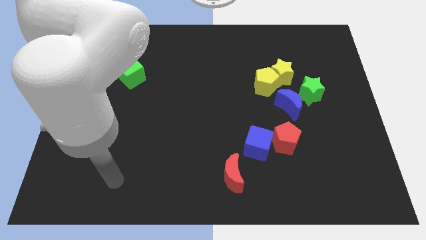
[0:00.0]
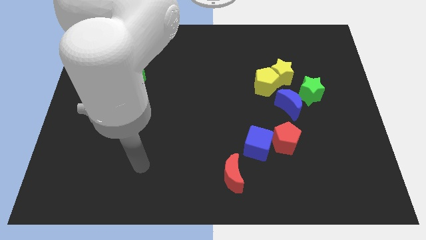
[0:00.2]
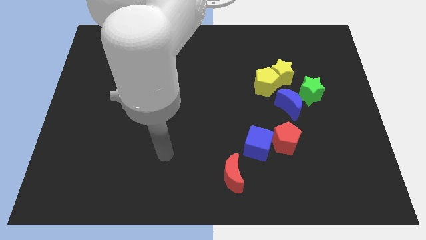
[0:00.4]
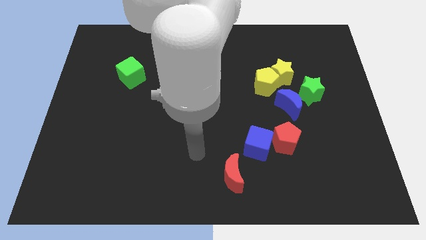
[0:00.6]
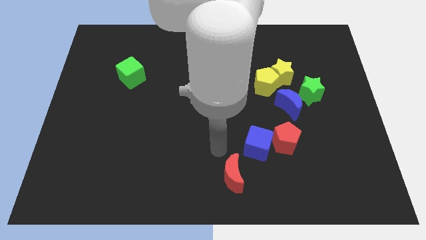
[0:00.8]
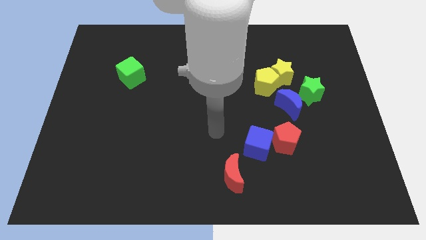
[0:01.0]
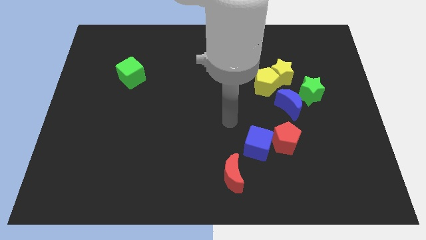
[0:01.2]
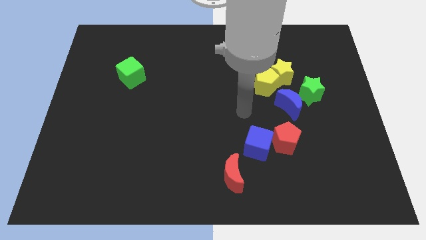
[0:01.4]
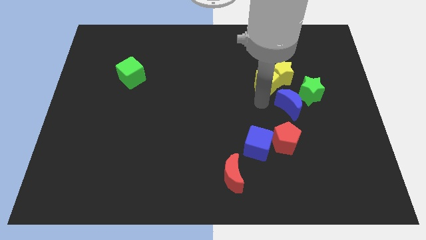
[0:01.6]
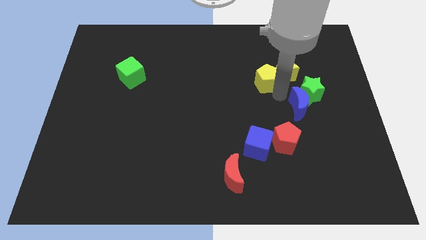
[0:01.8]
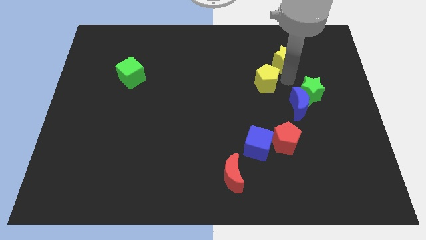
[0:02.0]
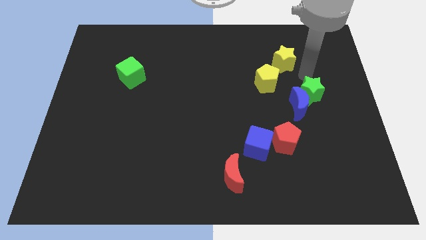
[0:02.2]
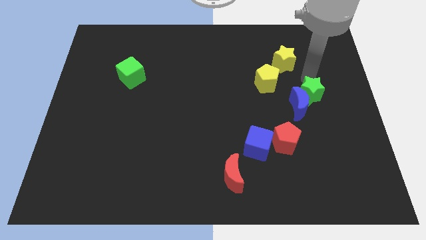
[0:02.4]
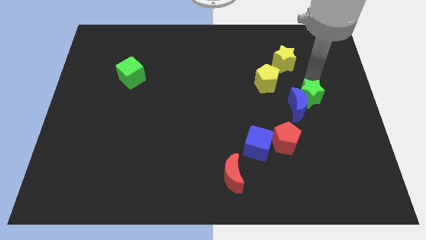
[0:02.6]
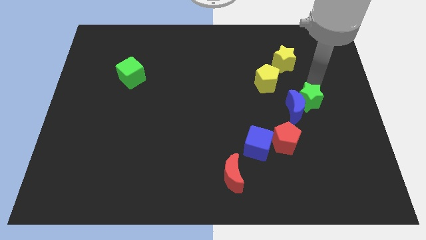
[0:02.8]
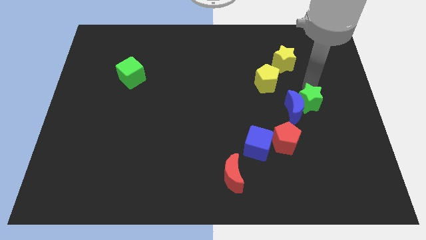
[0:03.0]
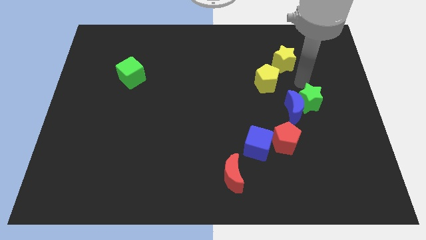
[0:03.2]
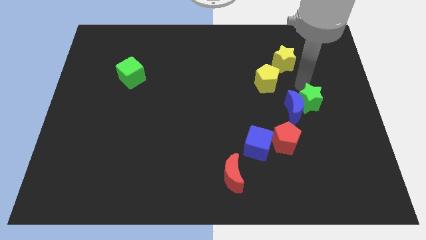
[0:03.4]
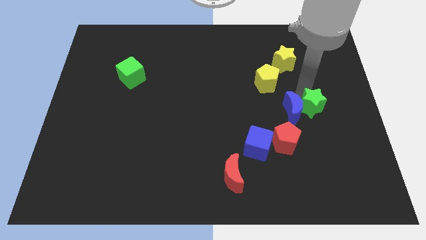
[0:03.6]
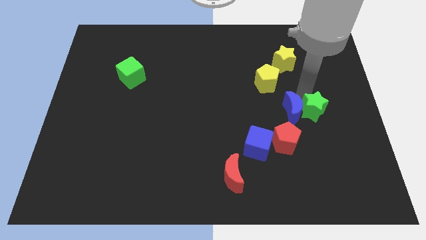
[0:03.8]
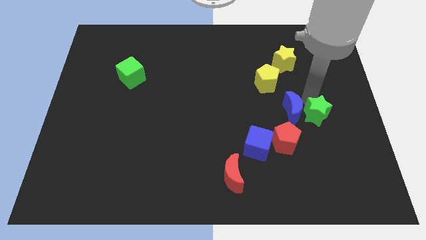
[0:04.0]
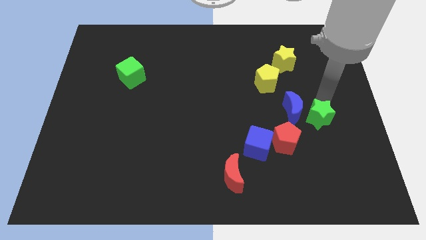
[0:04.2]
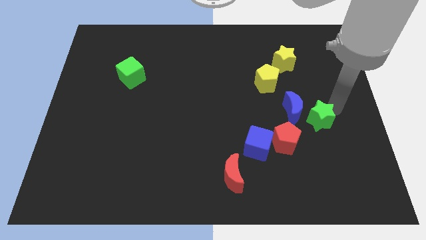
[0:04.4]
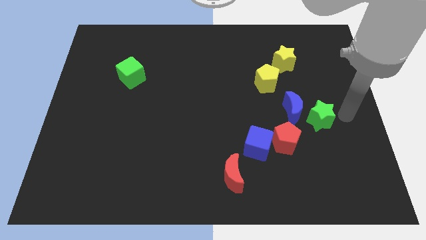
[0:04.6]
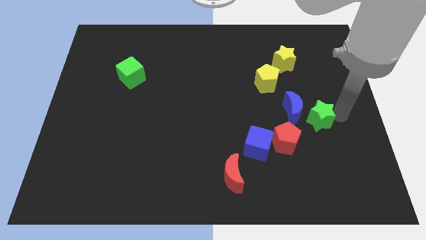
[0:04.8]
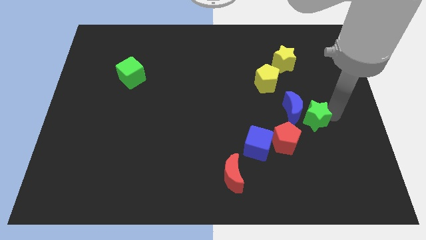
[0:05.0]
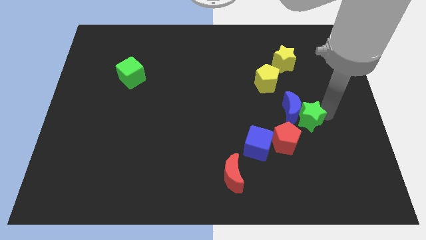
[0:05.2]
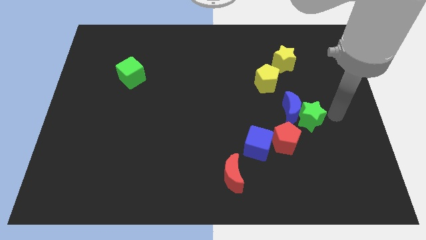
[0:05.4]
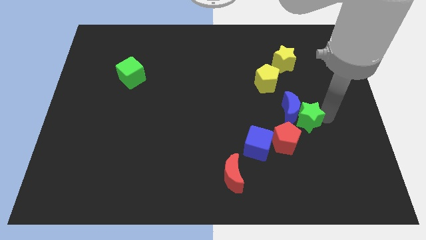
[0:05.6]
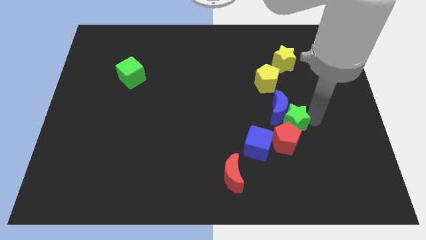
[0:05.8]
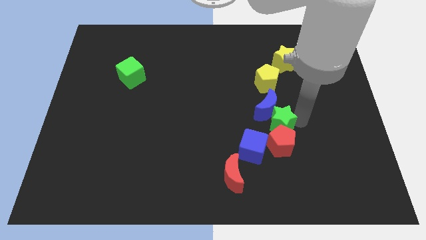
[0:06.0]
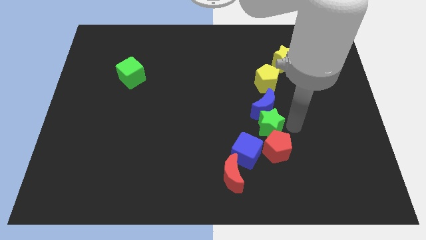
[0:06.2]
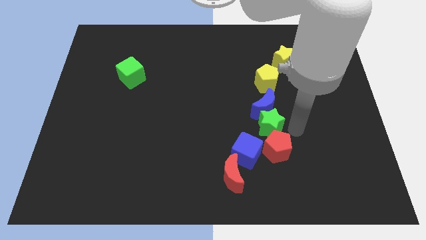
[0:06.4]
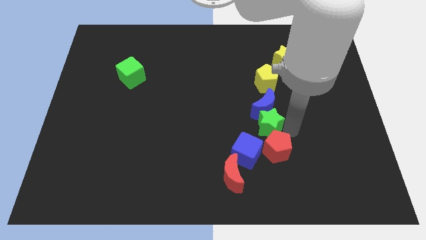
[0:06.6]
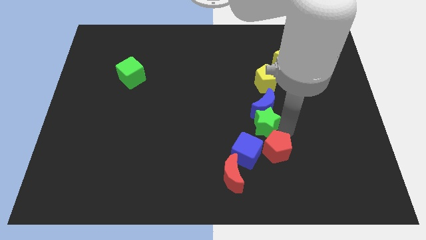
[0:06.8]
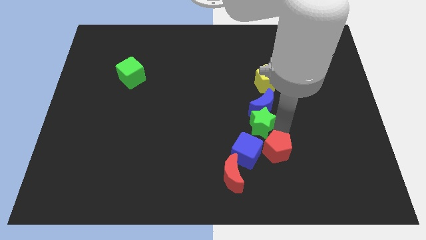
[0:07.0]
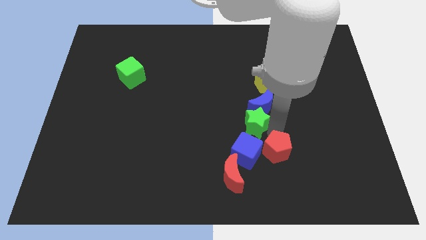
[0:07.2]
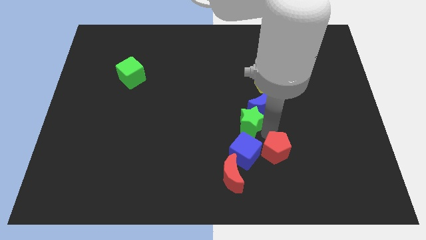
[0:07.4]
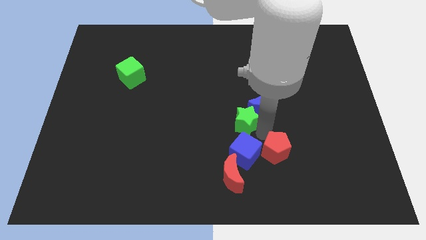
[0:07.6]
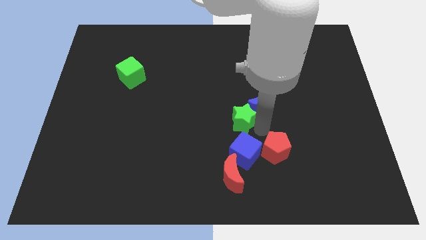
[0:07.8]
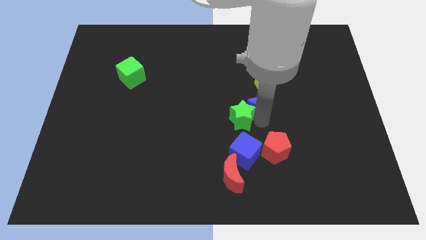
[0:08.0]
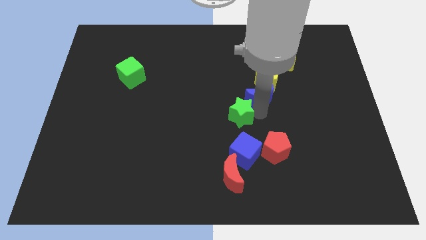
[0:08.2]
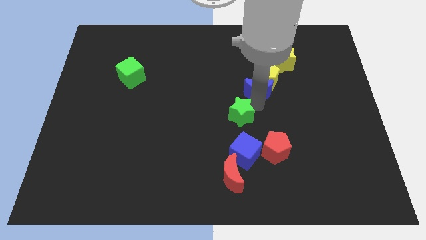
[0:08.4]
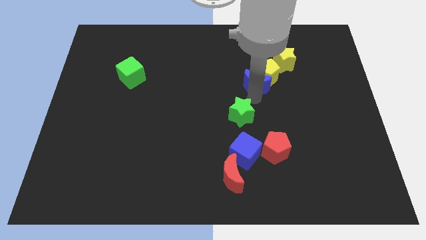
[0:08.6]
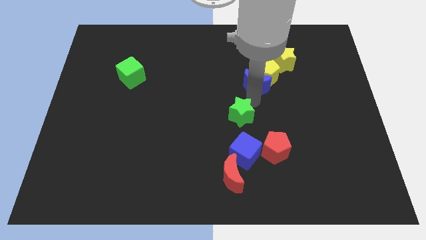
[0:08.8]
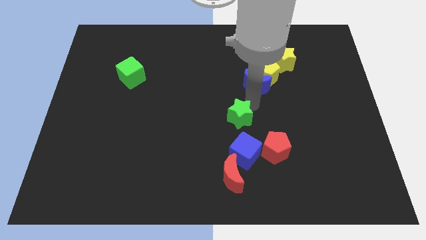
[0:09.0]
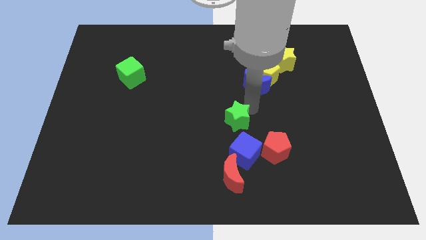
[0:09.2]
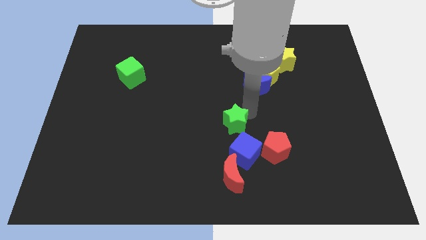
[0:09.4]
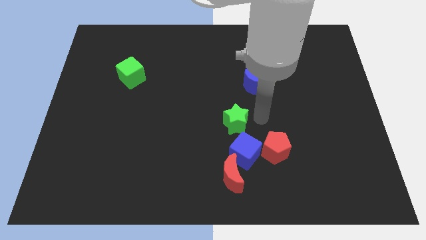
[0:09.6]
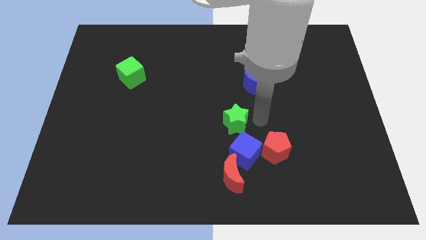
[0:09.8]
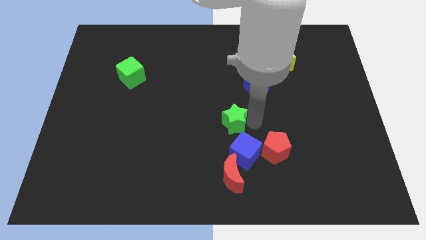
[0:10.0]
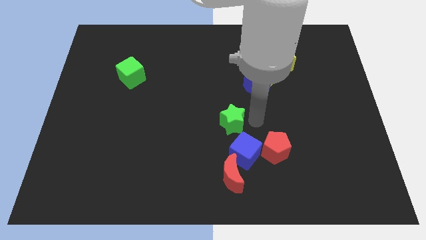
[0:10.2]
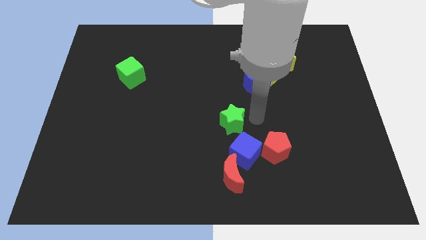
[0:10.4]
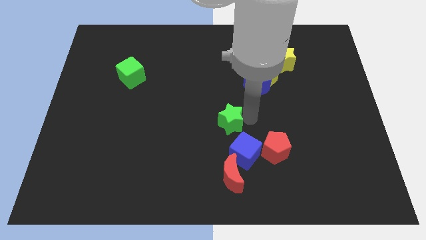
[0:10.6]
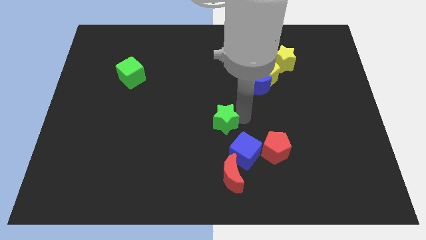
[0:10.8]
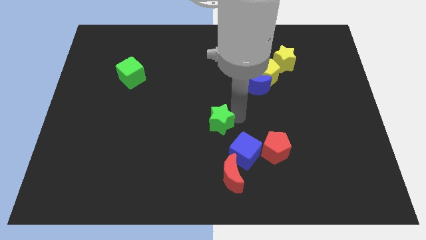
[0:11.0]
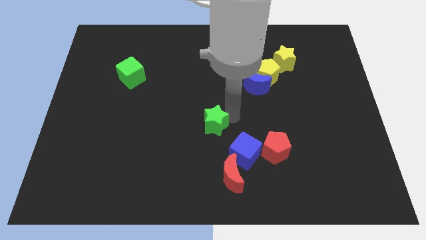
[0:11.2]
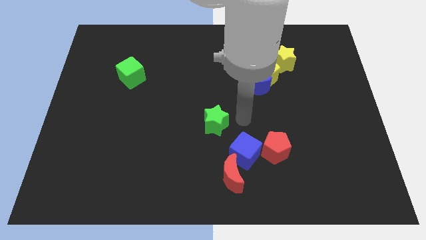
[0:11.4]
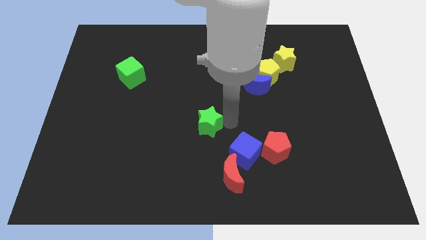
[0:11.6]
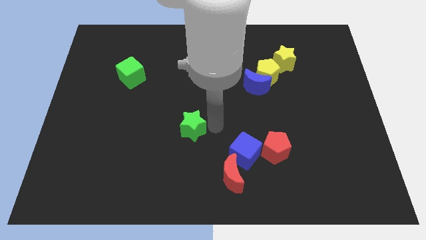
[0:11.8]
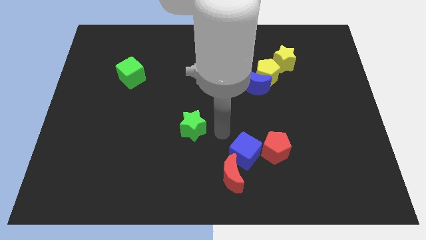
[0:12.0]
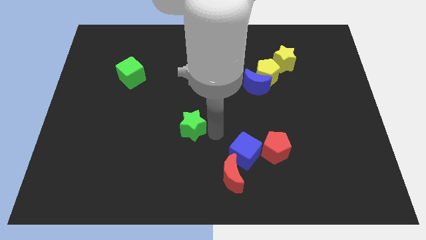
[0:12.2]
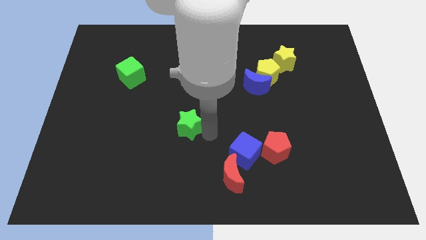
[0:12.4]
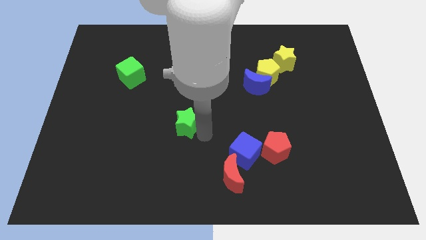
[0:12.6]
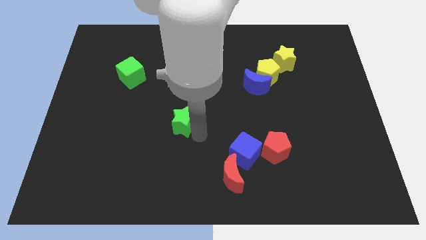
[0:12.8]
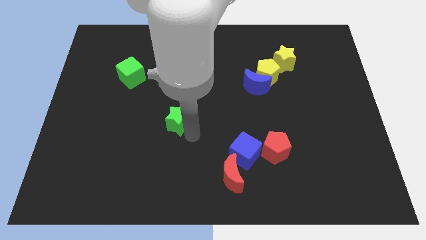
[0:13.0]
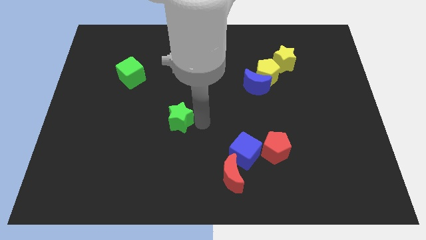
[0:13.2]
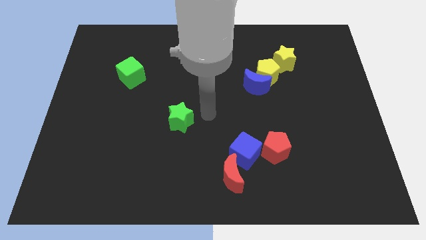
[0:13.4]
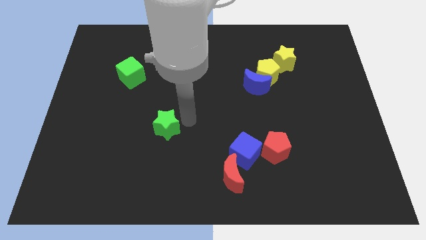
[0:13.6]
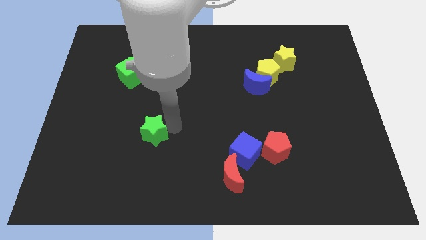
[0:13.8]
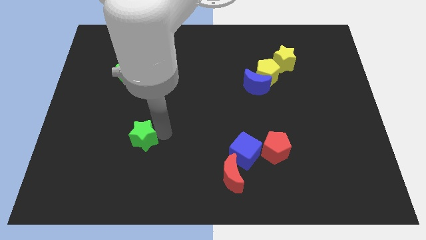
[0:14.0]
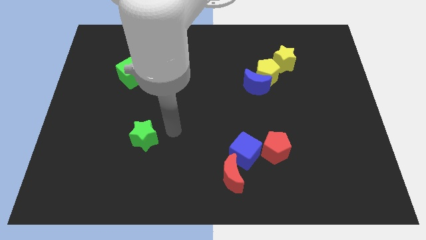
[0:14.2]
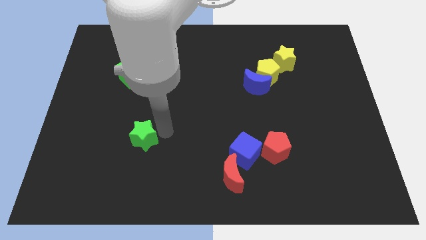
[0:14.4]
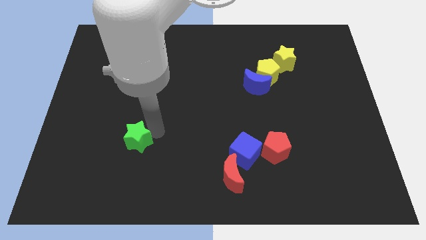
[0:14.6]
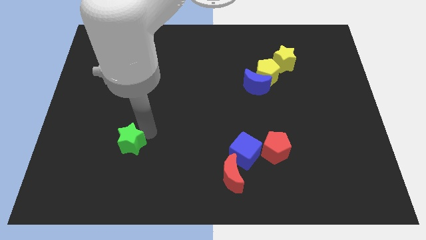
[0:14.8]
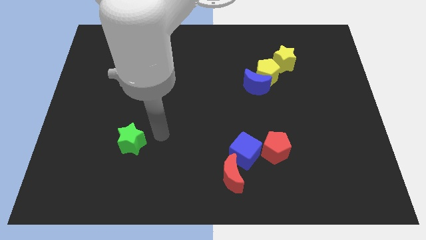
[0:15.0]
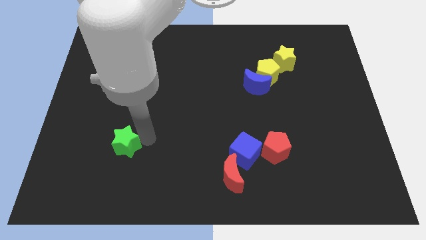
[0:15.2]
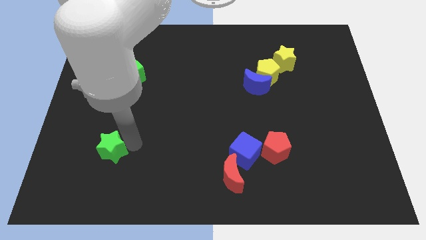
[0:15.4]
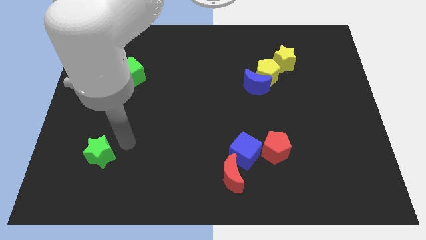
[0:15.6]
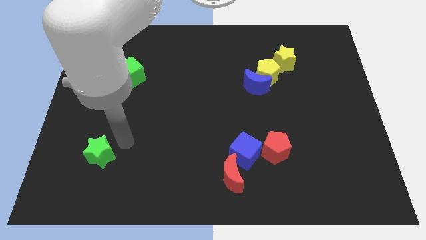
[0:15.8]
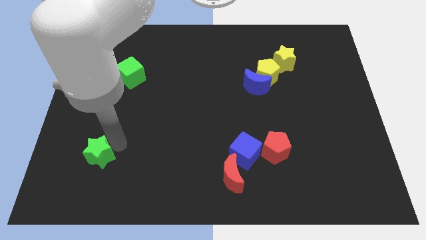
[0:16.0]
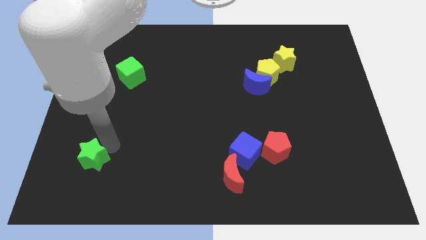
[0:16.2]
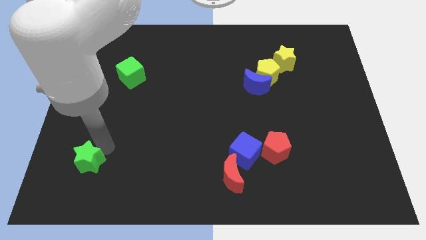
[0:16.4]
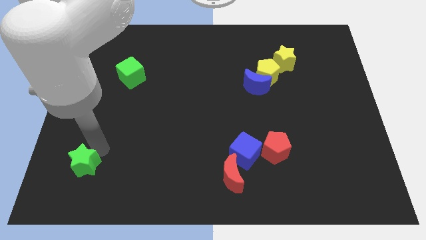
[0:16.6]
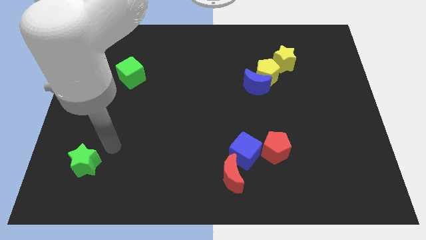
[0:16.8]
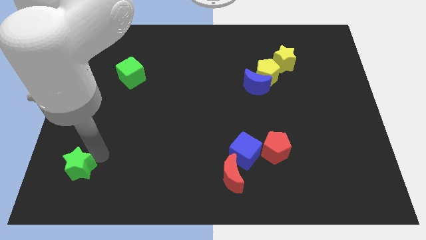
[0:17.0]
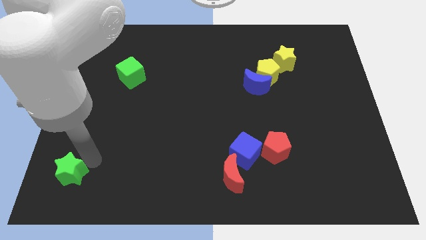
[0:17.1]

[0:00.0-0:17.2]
slide the green star to the bottom left corner
